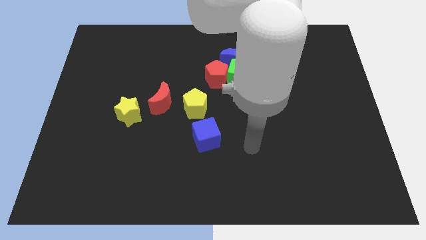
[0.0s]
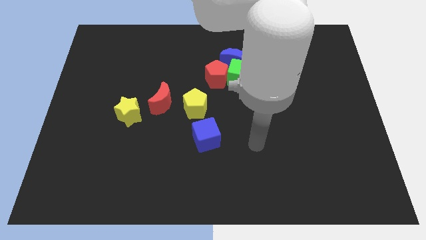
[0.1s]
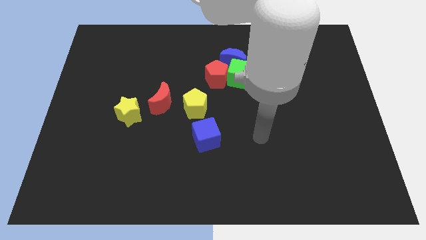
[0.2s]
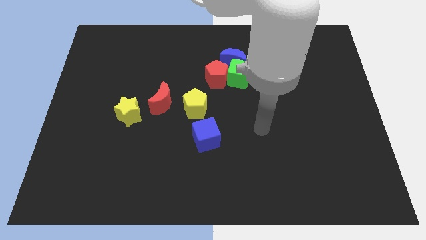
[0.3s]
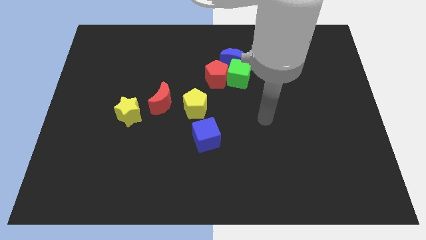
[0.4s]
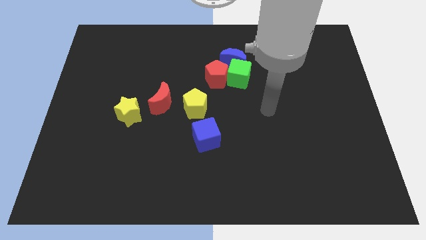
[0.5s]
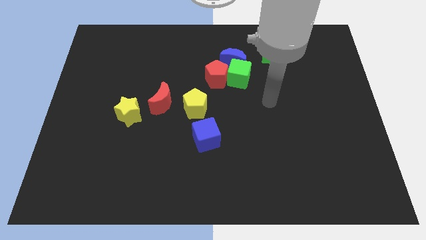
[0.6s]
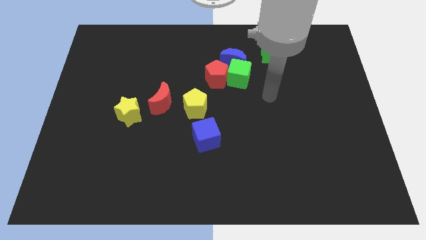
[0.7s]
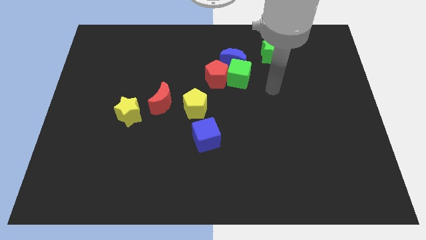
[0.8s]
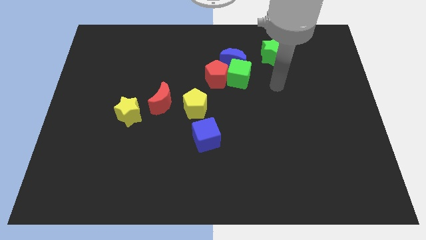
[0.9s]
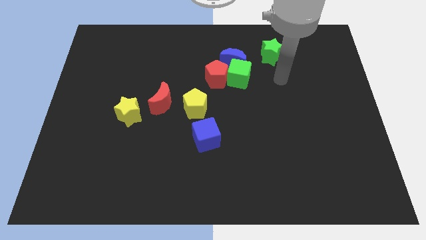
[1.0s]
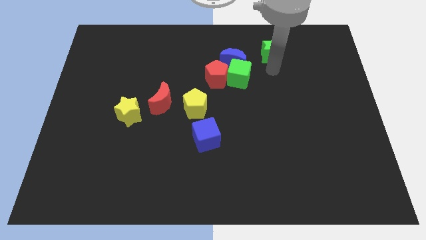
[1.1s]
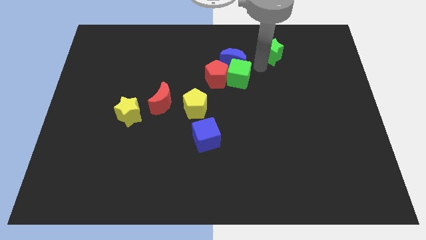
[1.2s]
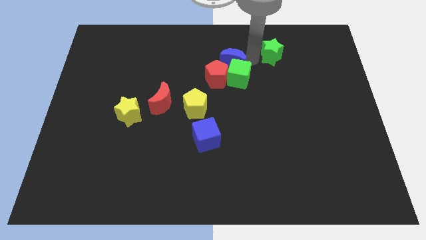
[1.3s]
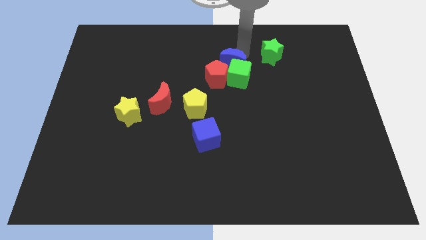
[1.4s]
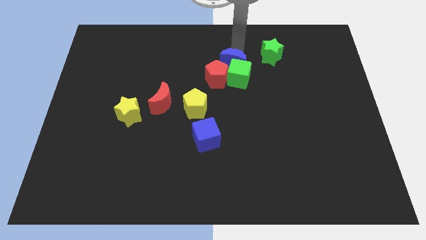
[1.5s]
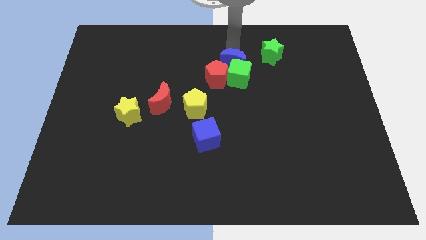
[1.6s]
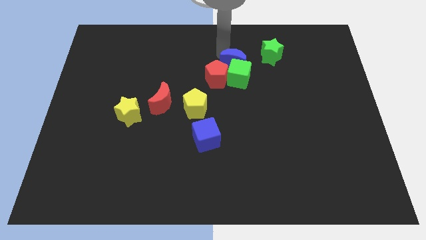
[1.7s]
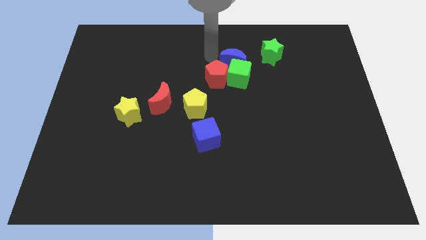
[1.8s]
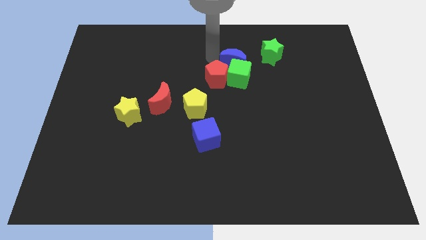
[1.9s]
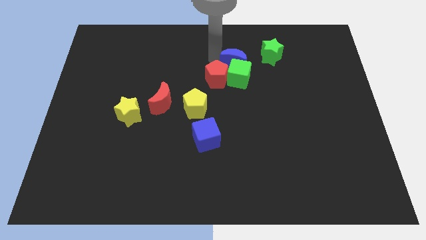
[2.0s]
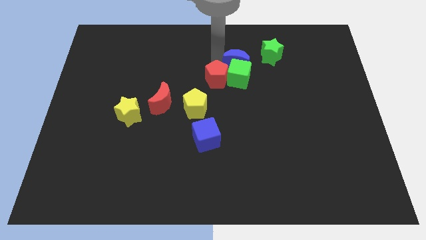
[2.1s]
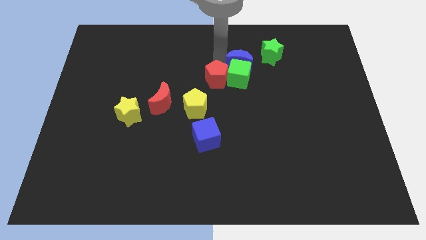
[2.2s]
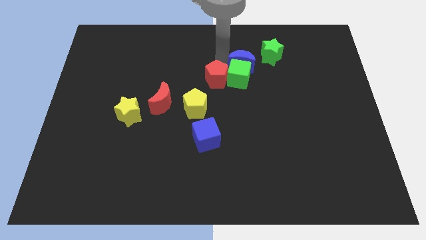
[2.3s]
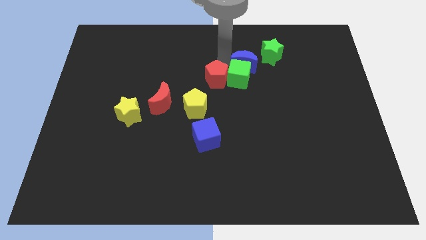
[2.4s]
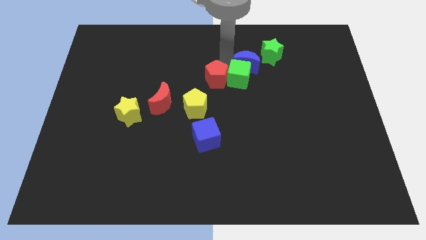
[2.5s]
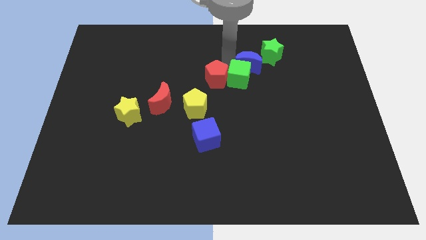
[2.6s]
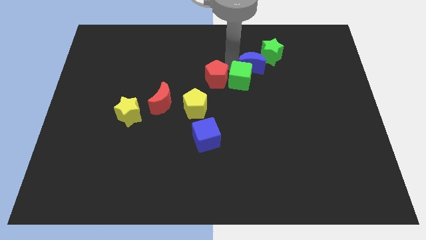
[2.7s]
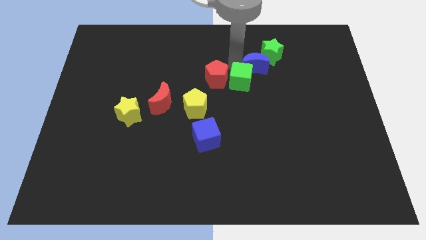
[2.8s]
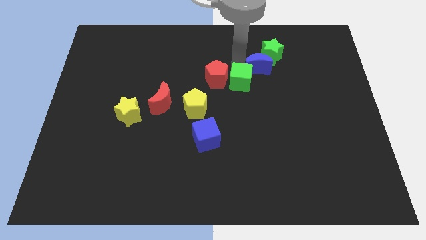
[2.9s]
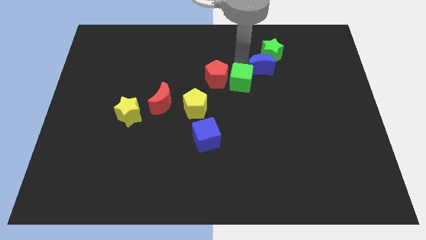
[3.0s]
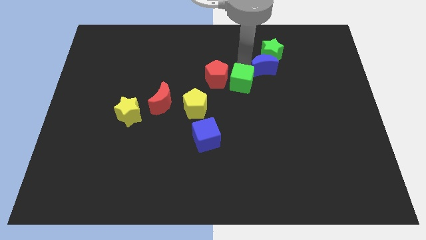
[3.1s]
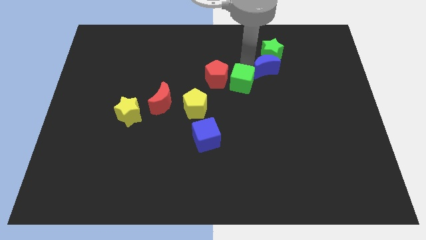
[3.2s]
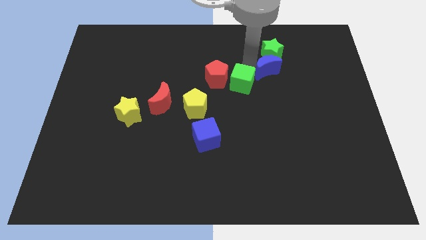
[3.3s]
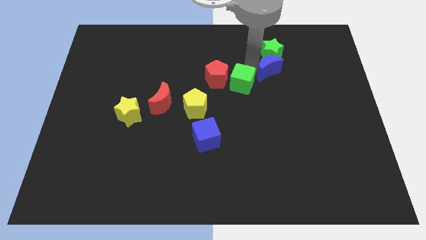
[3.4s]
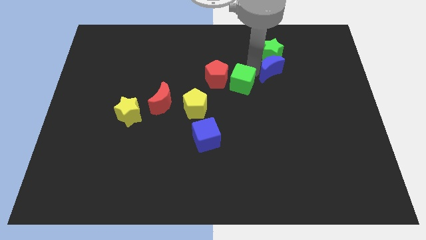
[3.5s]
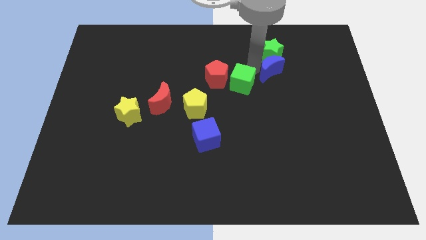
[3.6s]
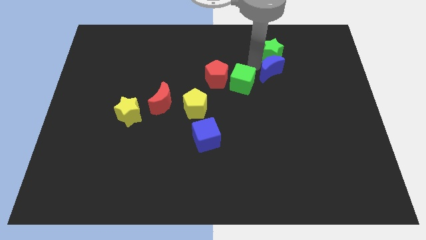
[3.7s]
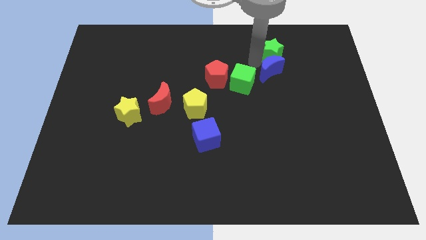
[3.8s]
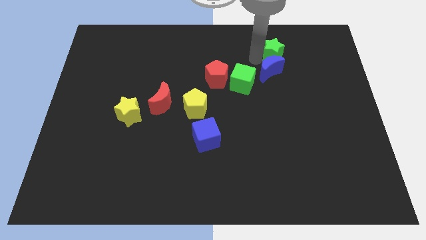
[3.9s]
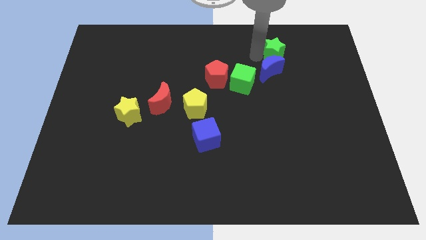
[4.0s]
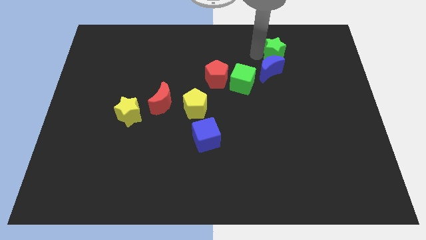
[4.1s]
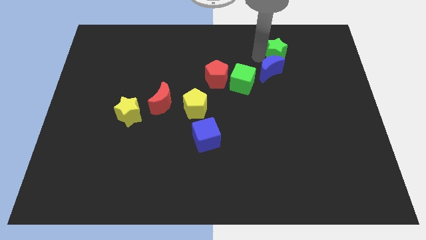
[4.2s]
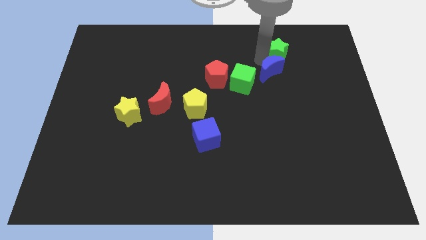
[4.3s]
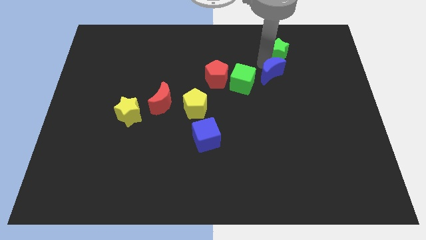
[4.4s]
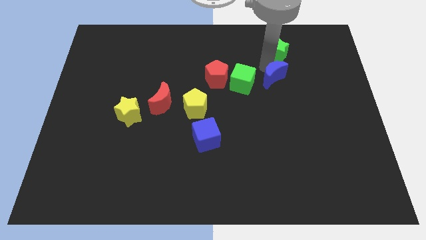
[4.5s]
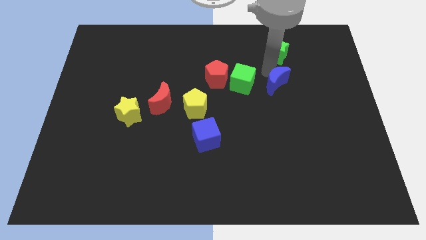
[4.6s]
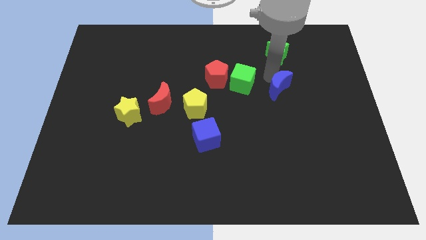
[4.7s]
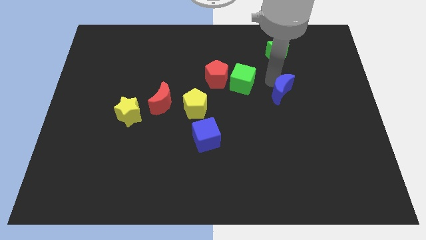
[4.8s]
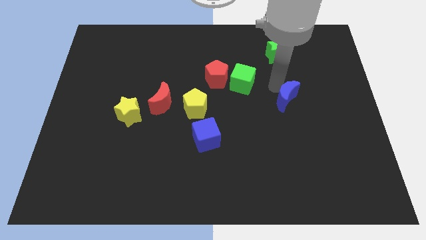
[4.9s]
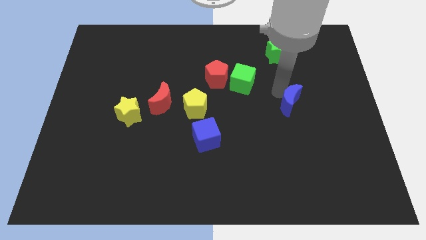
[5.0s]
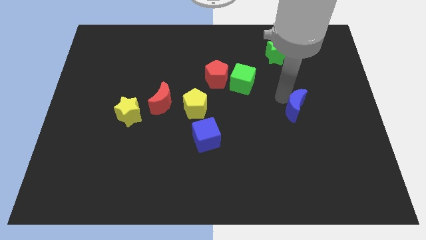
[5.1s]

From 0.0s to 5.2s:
move the blue moon downwards and to the right diagonally

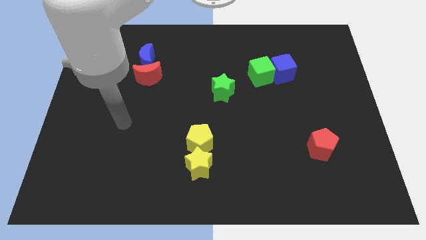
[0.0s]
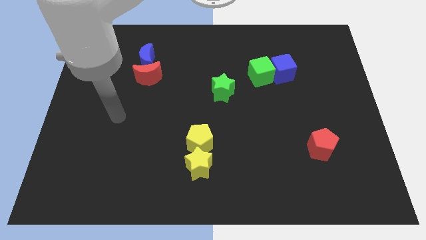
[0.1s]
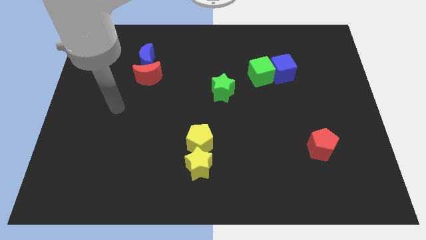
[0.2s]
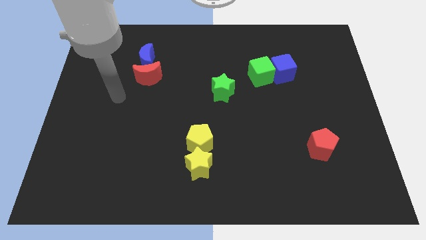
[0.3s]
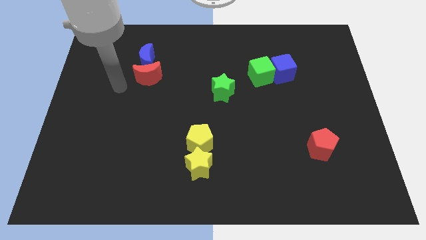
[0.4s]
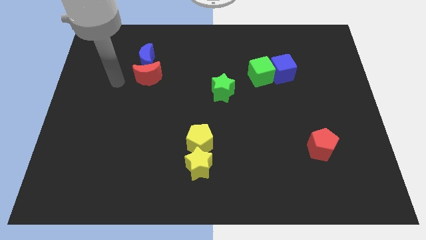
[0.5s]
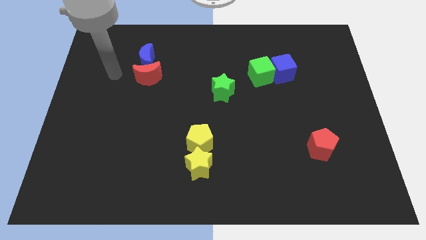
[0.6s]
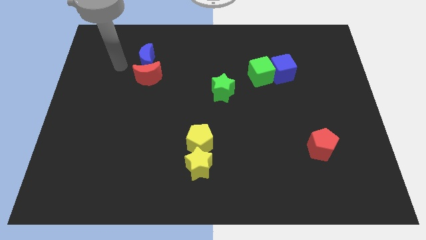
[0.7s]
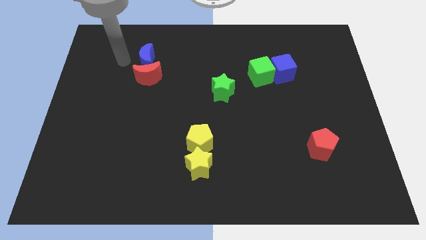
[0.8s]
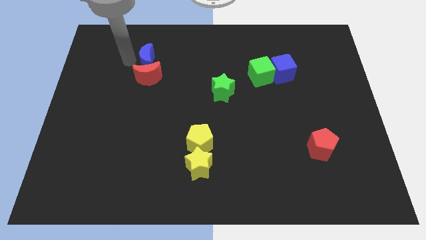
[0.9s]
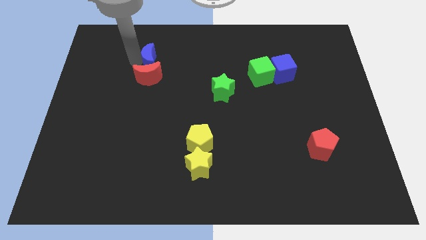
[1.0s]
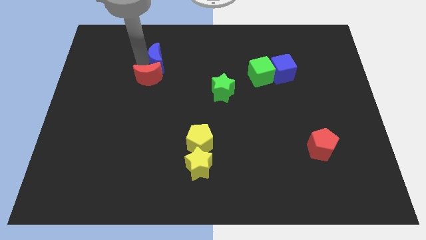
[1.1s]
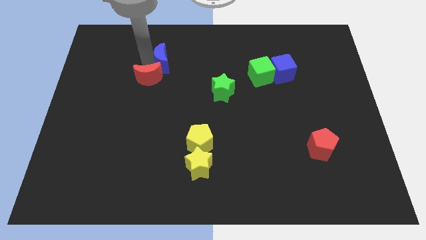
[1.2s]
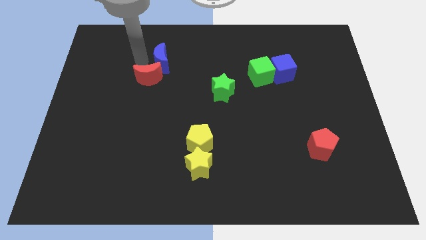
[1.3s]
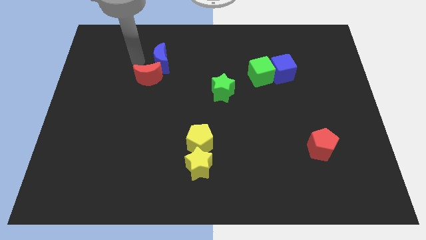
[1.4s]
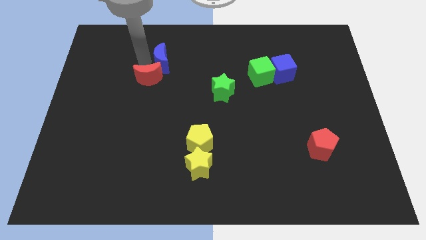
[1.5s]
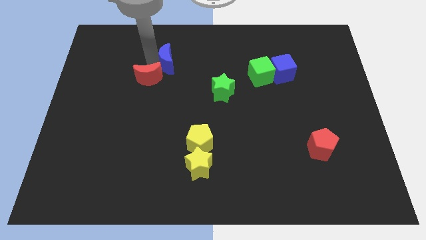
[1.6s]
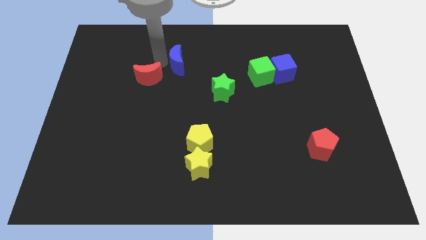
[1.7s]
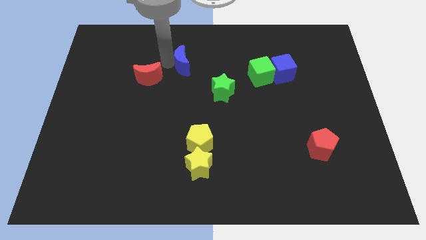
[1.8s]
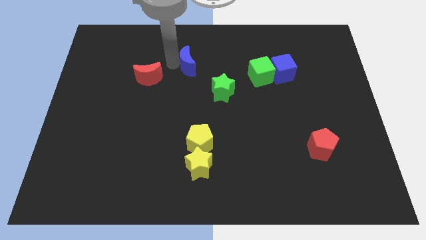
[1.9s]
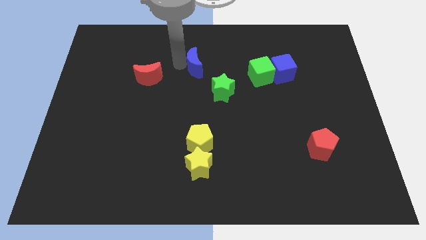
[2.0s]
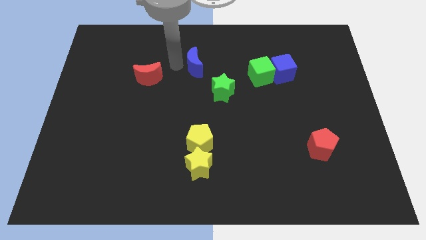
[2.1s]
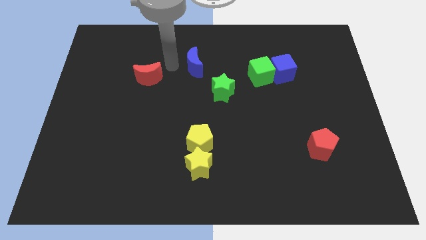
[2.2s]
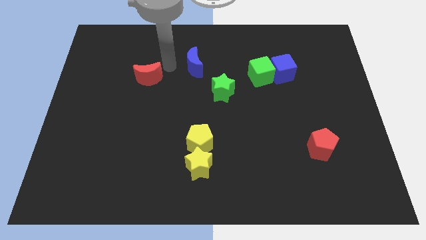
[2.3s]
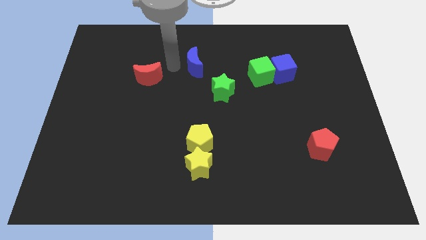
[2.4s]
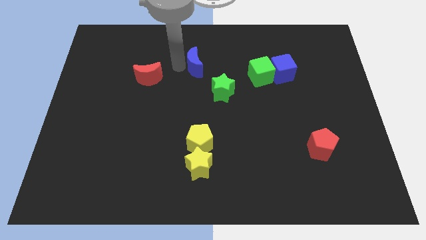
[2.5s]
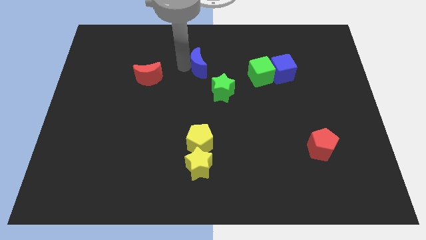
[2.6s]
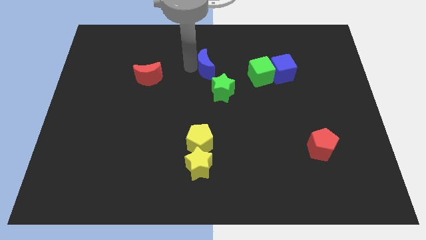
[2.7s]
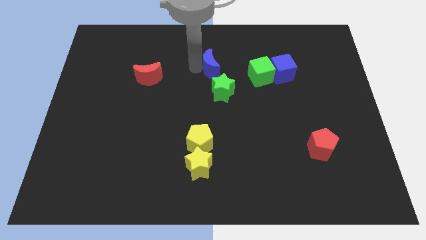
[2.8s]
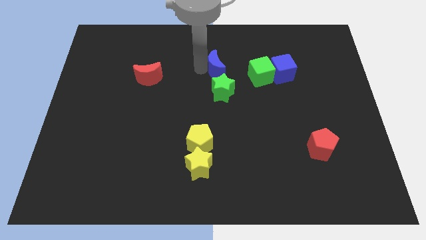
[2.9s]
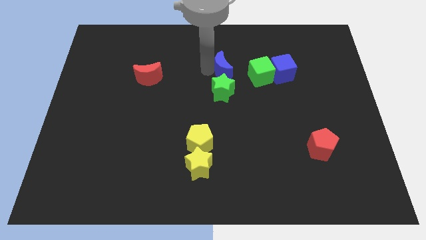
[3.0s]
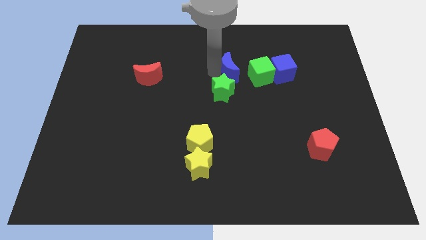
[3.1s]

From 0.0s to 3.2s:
push the blue moon to the right
